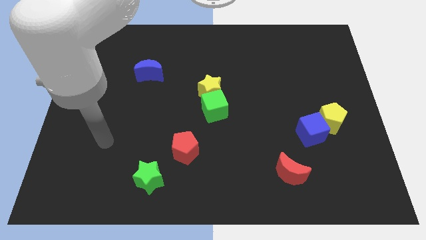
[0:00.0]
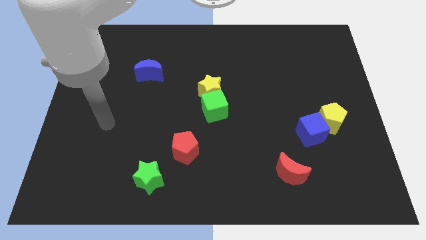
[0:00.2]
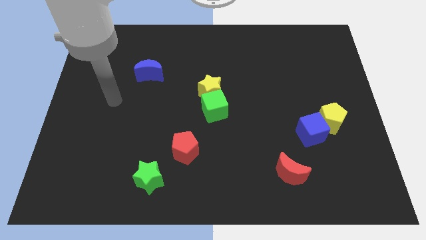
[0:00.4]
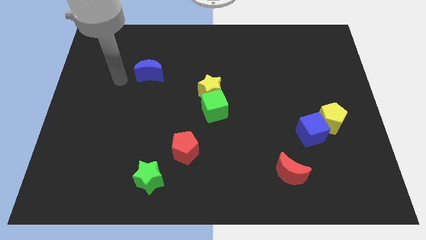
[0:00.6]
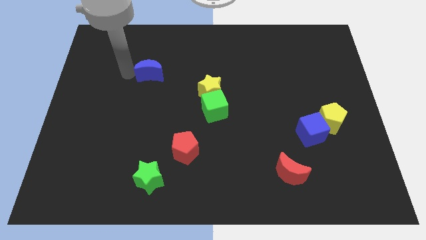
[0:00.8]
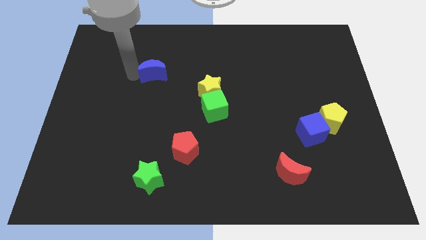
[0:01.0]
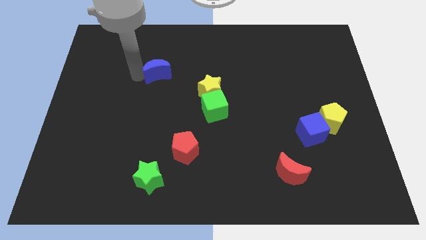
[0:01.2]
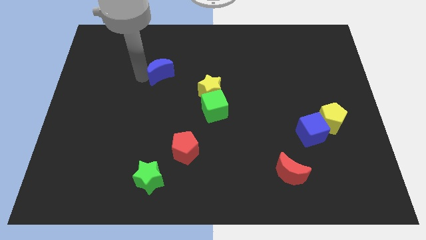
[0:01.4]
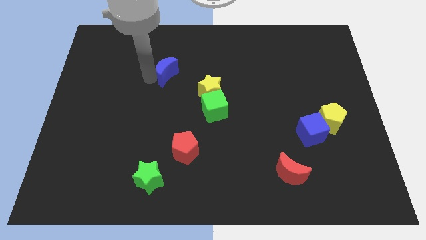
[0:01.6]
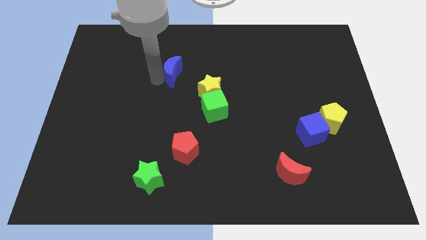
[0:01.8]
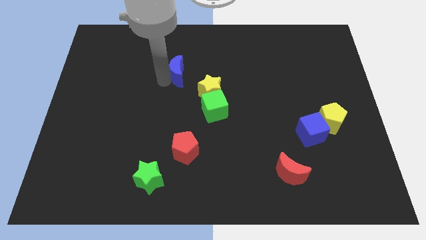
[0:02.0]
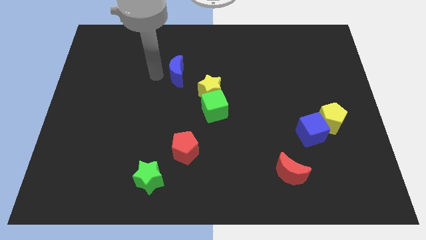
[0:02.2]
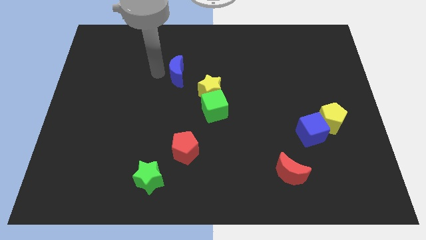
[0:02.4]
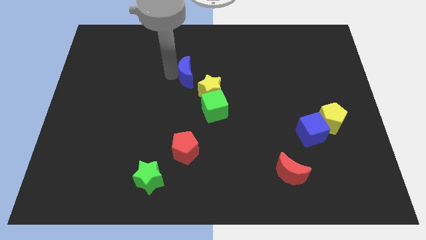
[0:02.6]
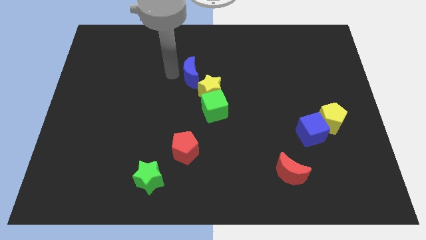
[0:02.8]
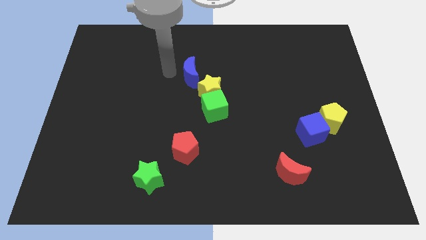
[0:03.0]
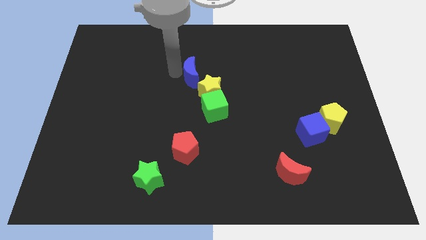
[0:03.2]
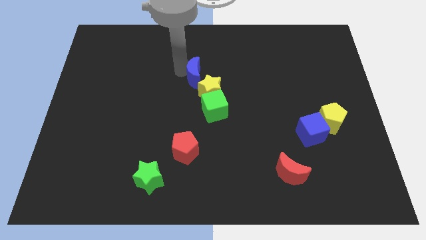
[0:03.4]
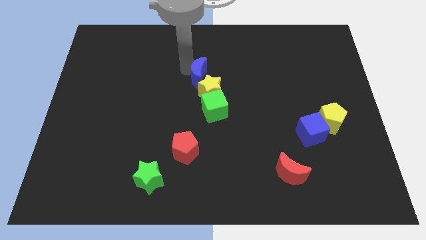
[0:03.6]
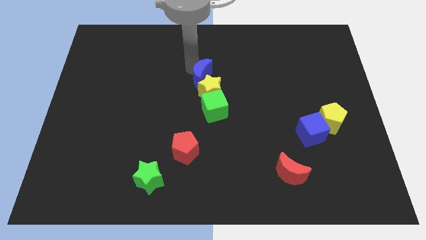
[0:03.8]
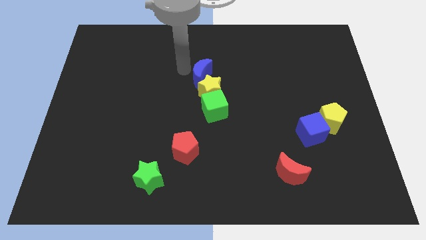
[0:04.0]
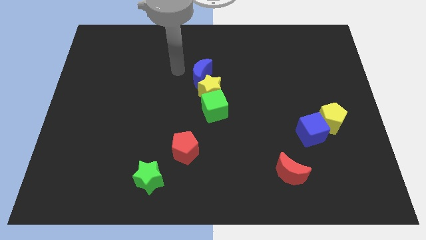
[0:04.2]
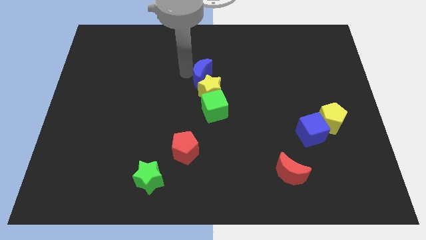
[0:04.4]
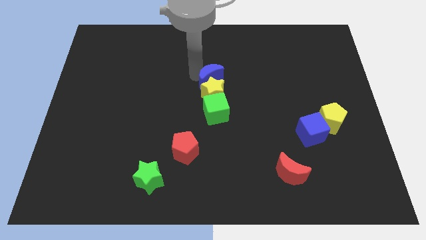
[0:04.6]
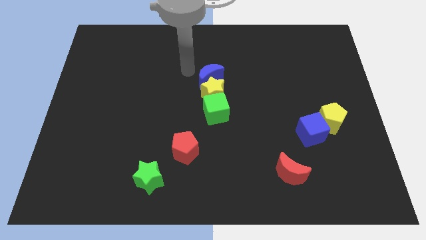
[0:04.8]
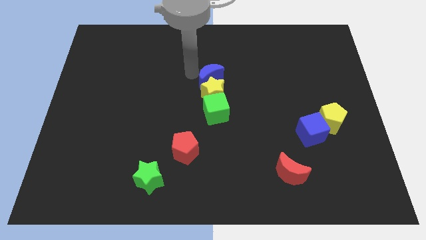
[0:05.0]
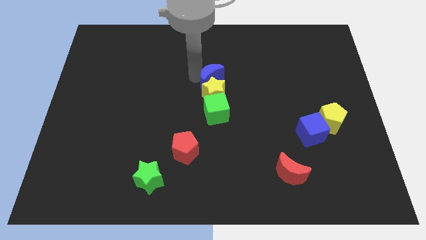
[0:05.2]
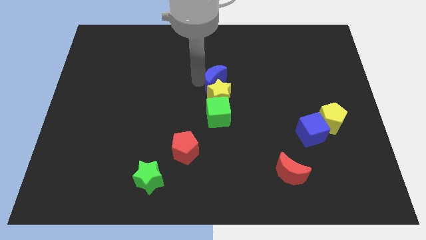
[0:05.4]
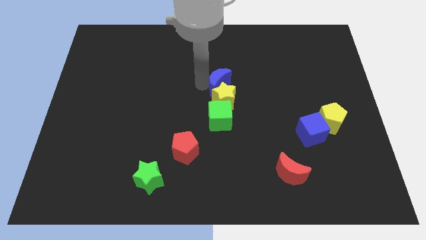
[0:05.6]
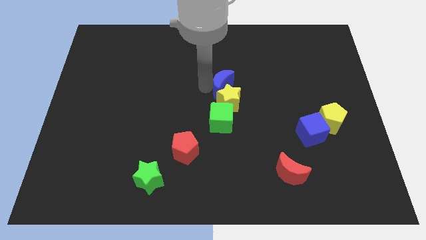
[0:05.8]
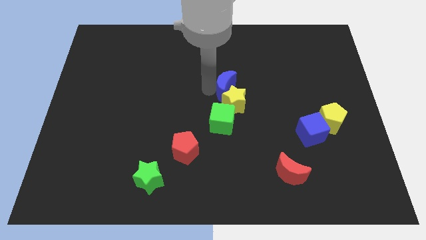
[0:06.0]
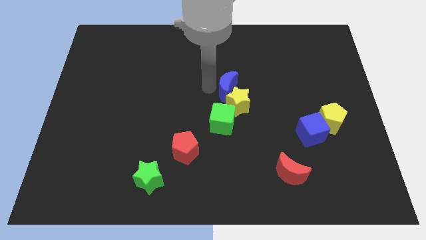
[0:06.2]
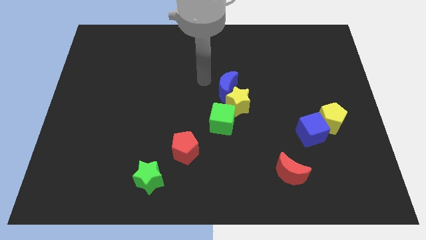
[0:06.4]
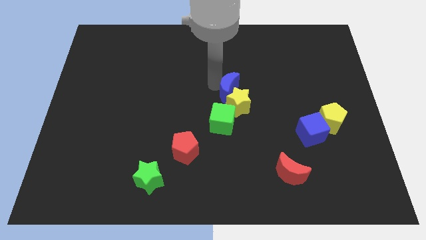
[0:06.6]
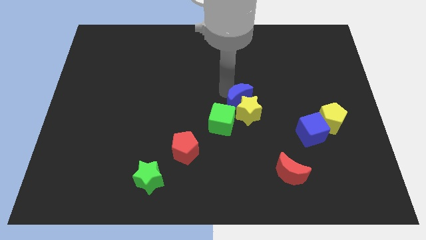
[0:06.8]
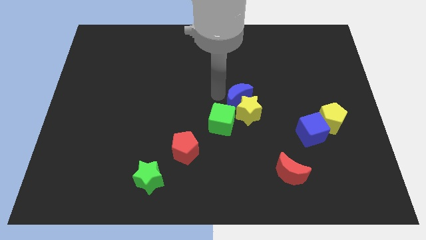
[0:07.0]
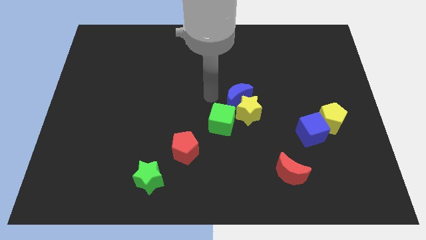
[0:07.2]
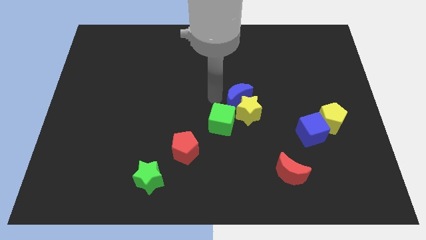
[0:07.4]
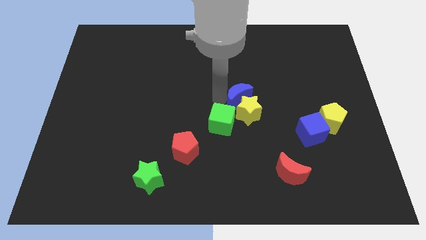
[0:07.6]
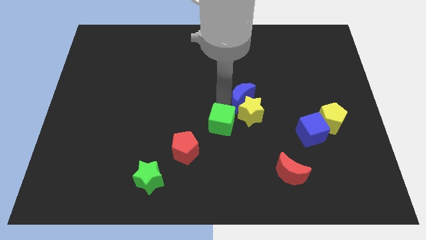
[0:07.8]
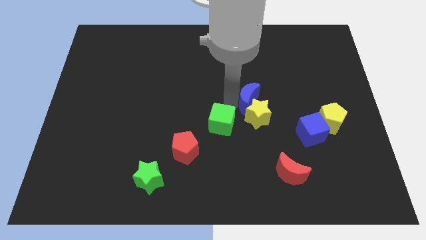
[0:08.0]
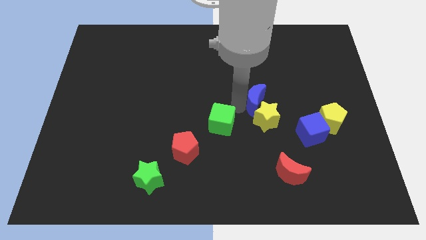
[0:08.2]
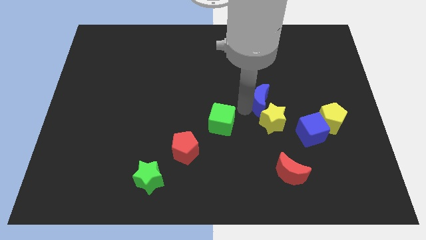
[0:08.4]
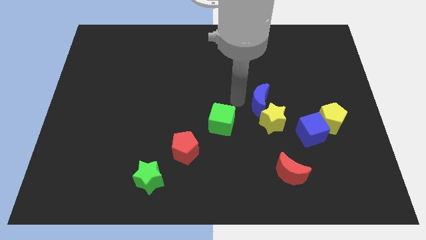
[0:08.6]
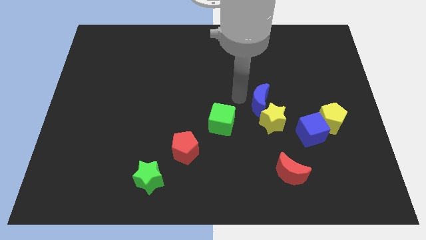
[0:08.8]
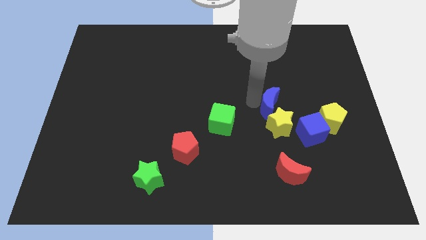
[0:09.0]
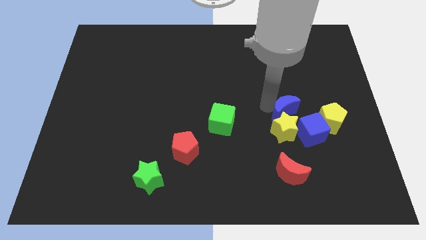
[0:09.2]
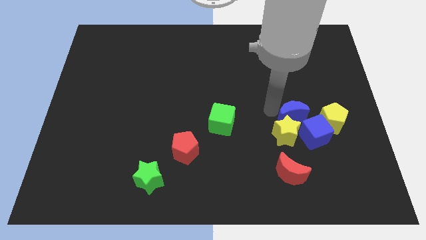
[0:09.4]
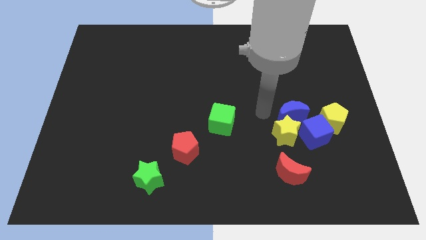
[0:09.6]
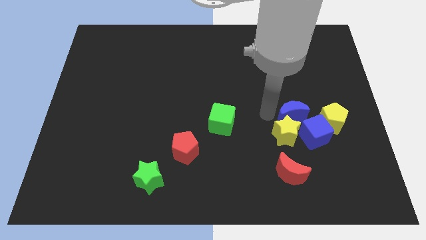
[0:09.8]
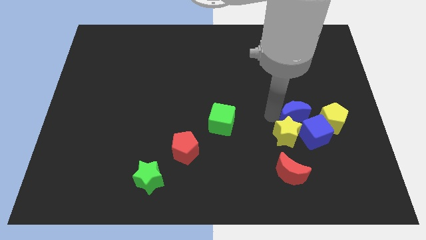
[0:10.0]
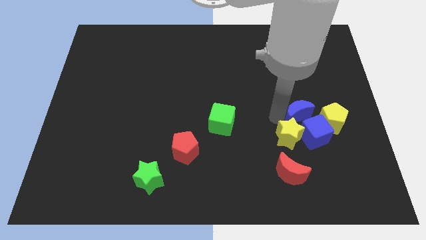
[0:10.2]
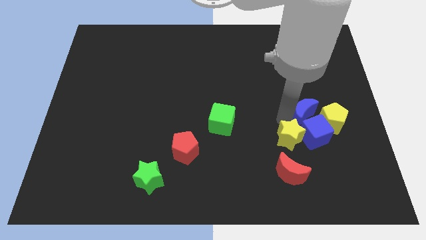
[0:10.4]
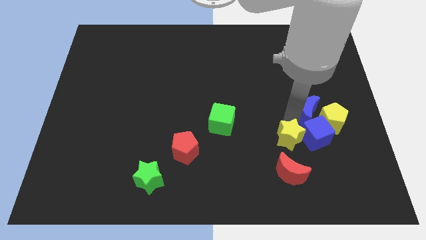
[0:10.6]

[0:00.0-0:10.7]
put the blue moon next to the yellow pentagon

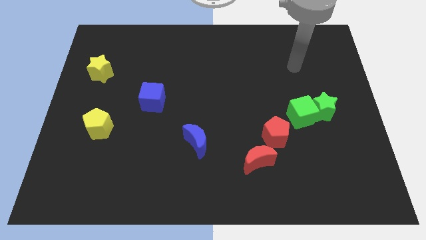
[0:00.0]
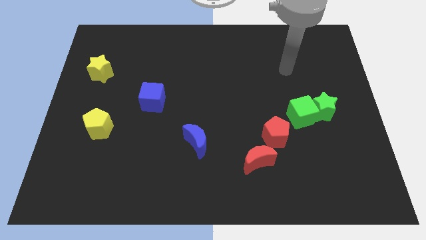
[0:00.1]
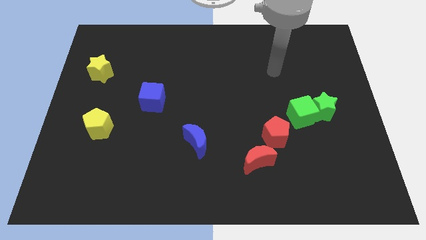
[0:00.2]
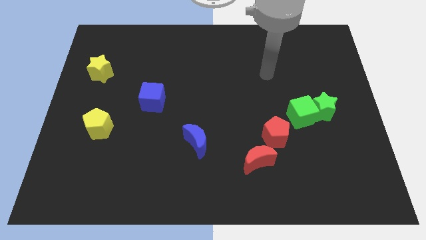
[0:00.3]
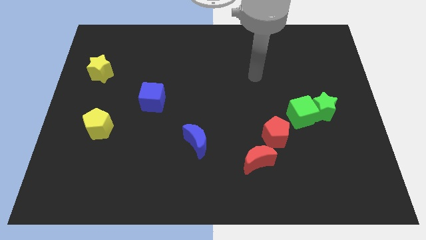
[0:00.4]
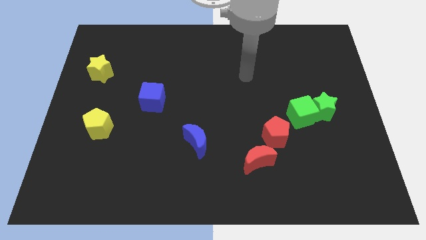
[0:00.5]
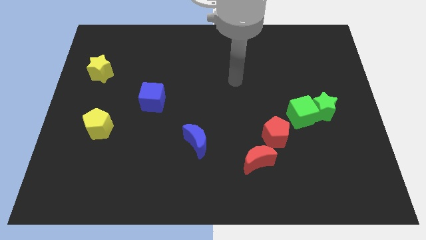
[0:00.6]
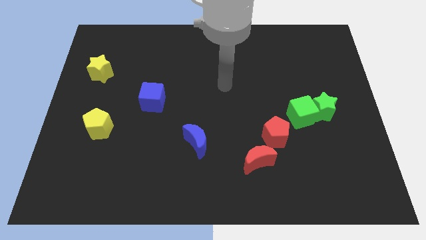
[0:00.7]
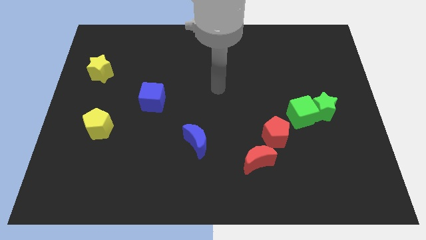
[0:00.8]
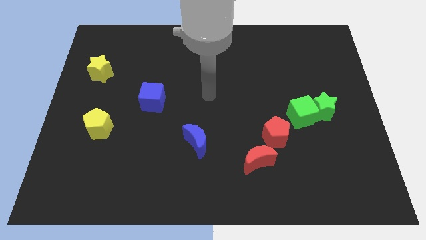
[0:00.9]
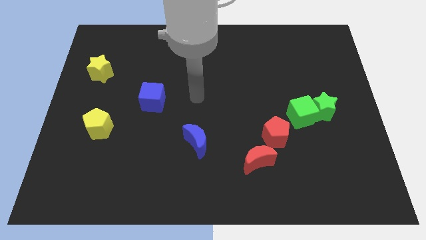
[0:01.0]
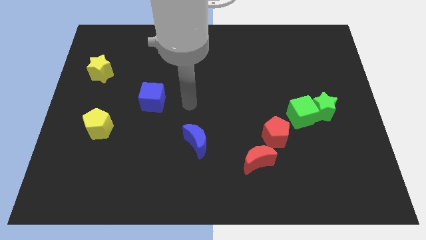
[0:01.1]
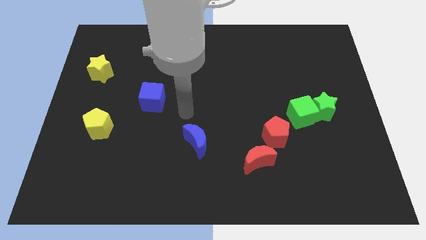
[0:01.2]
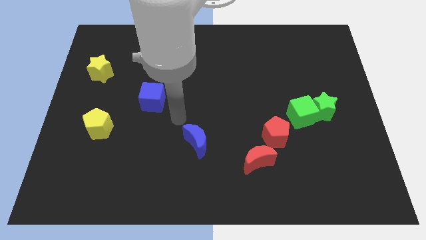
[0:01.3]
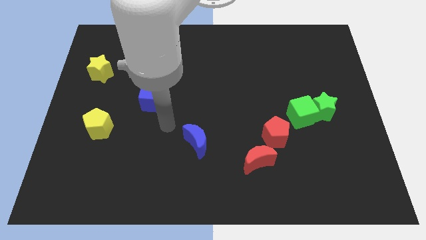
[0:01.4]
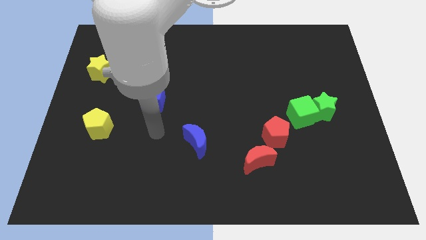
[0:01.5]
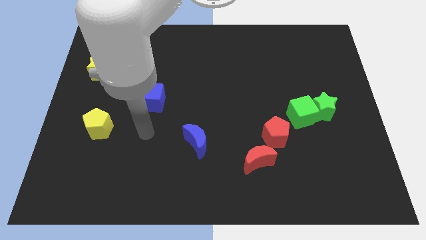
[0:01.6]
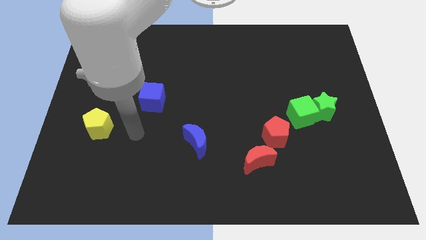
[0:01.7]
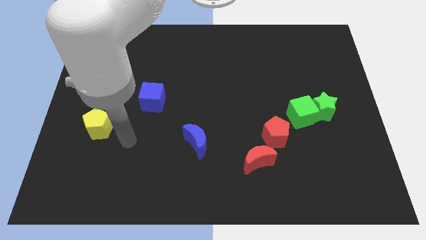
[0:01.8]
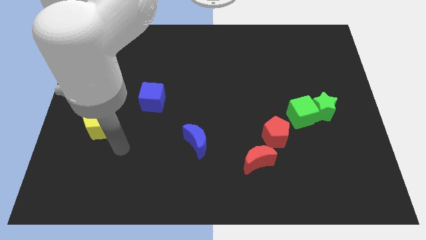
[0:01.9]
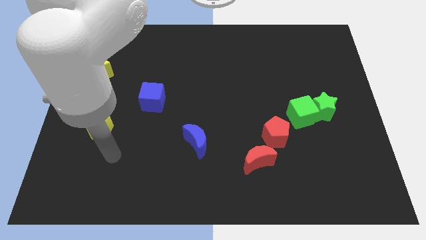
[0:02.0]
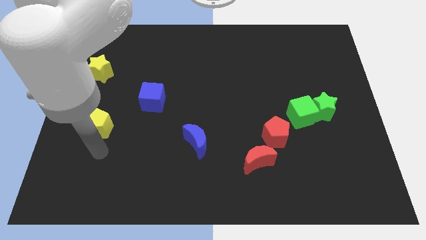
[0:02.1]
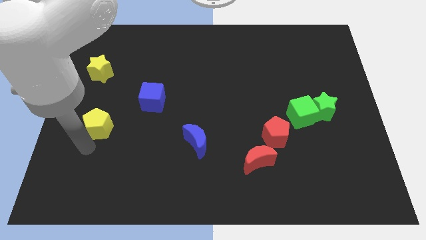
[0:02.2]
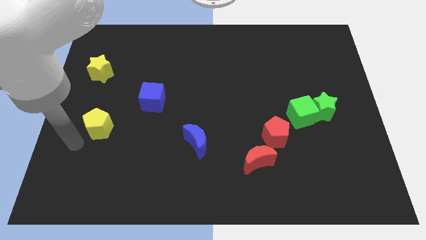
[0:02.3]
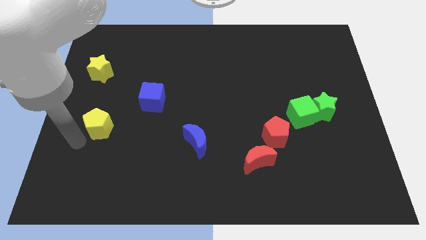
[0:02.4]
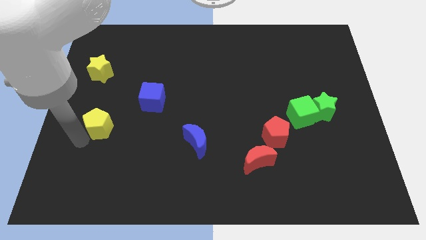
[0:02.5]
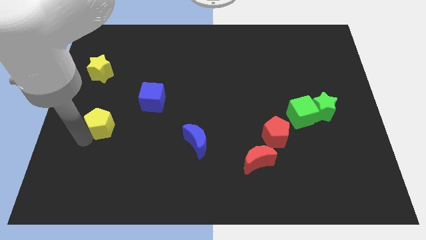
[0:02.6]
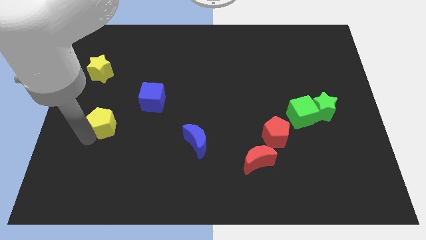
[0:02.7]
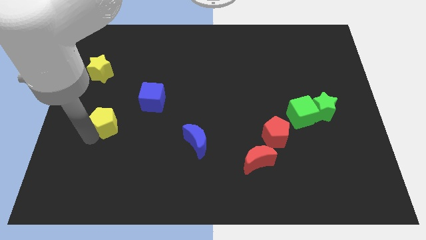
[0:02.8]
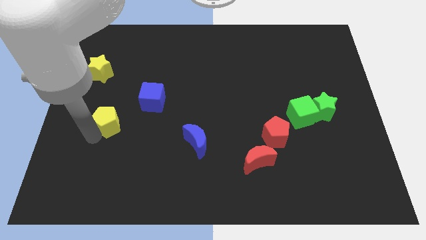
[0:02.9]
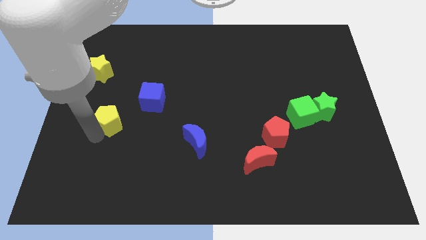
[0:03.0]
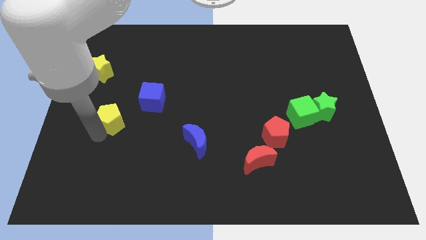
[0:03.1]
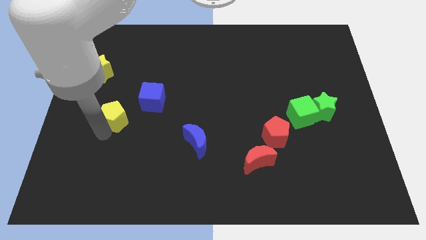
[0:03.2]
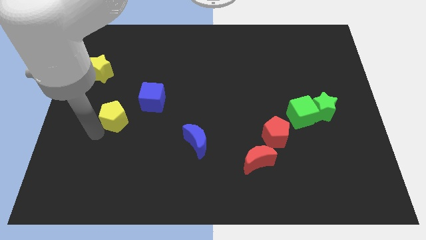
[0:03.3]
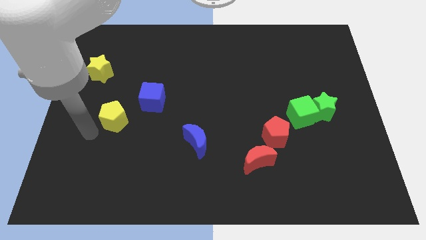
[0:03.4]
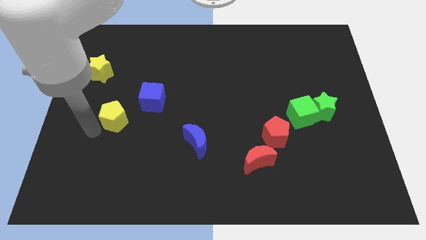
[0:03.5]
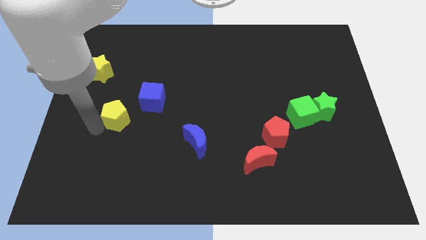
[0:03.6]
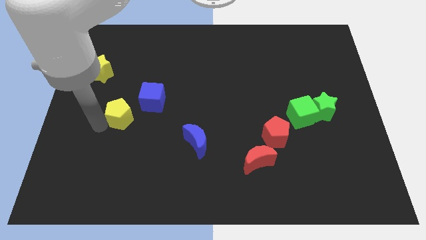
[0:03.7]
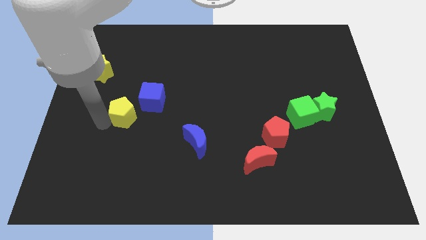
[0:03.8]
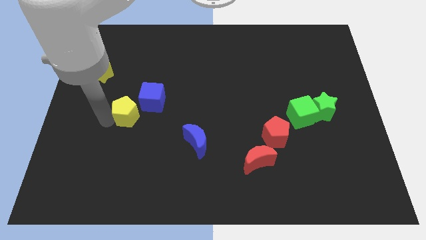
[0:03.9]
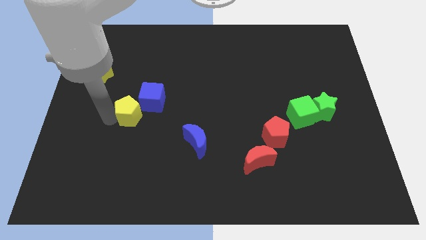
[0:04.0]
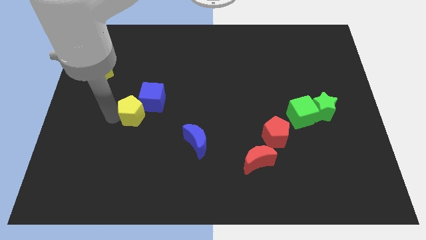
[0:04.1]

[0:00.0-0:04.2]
put the yellow pentagon next to the blue cube
